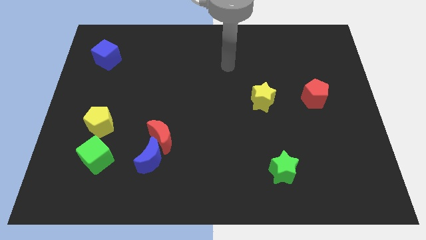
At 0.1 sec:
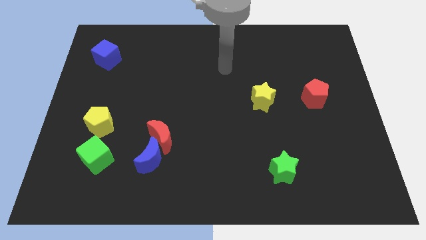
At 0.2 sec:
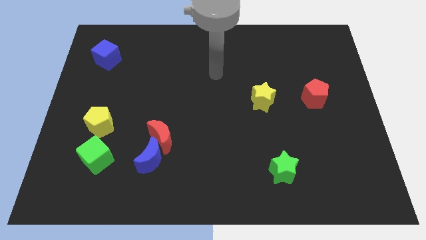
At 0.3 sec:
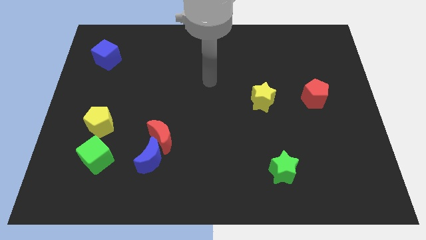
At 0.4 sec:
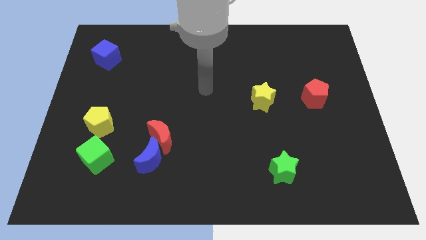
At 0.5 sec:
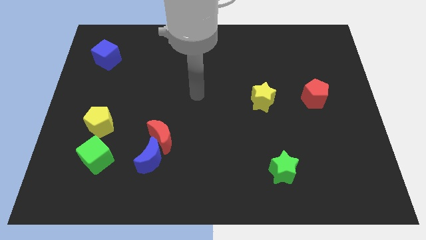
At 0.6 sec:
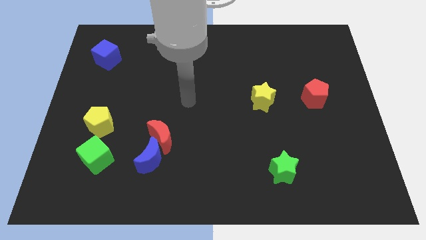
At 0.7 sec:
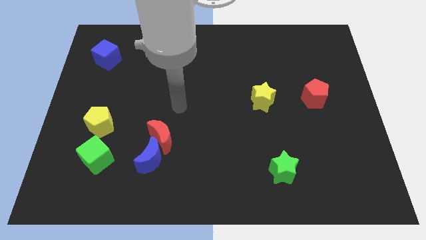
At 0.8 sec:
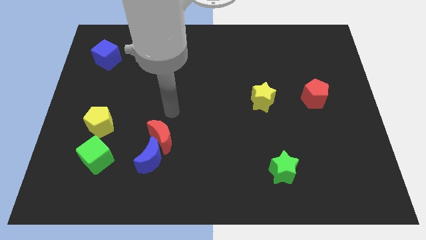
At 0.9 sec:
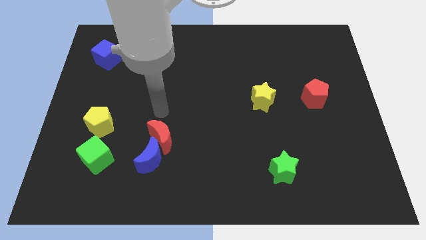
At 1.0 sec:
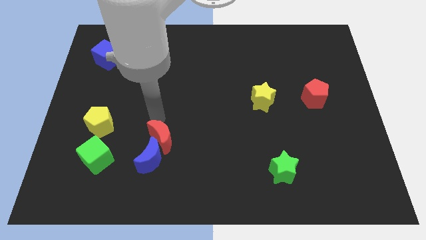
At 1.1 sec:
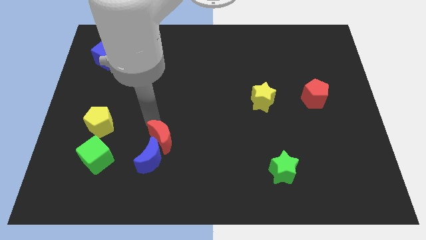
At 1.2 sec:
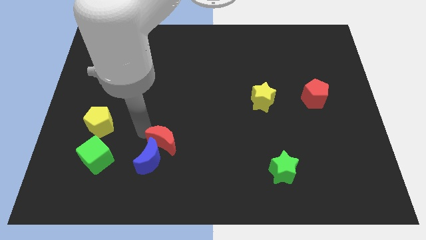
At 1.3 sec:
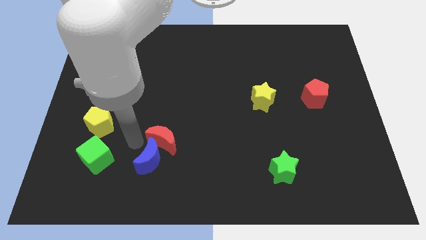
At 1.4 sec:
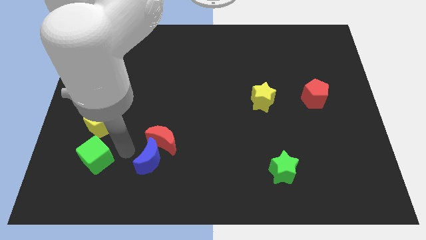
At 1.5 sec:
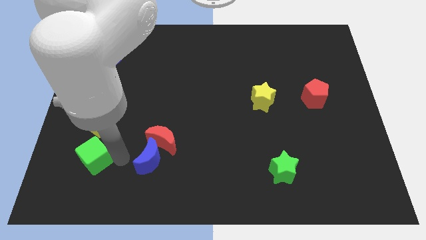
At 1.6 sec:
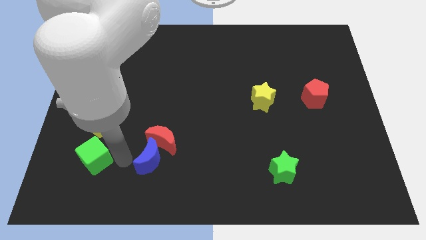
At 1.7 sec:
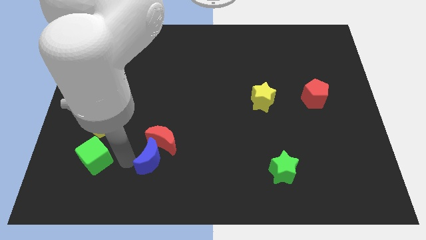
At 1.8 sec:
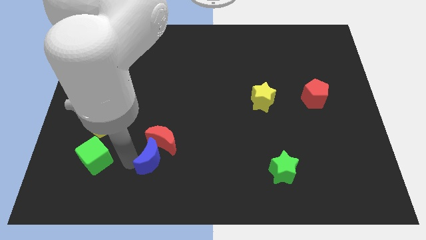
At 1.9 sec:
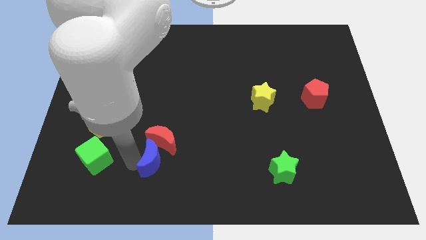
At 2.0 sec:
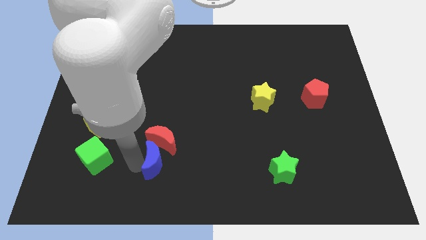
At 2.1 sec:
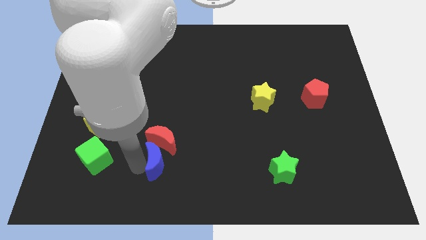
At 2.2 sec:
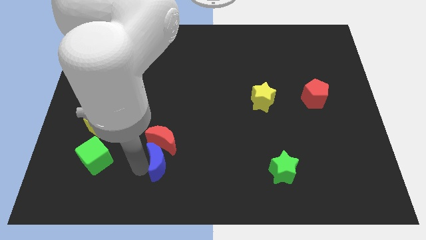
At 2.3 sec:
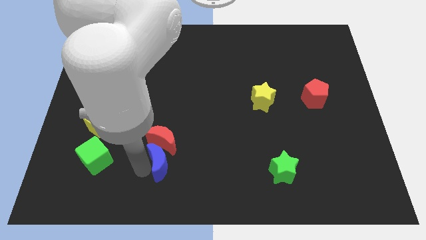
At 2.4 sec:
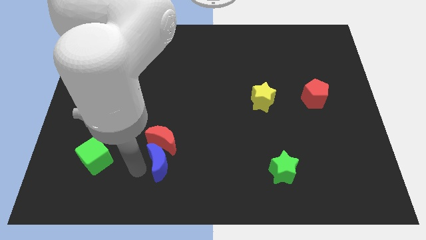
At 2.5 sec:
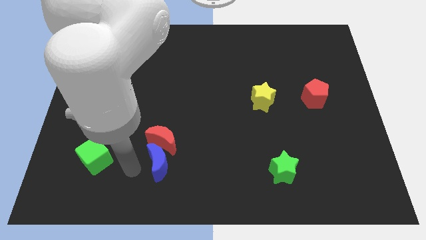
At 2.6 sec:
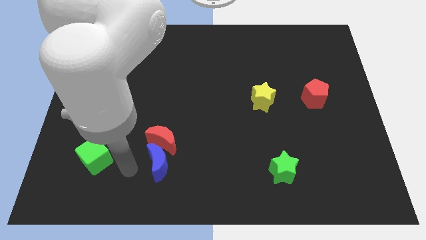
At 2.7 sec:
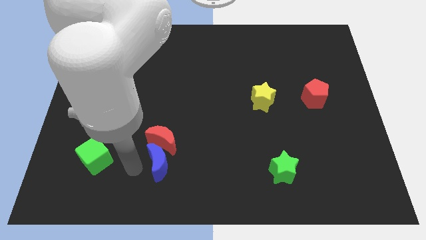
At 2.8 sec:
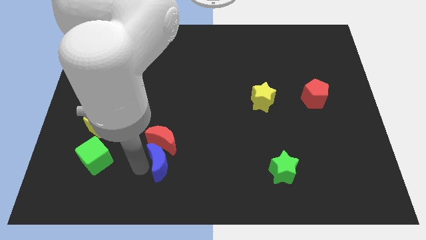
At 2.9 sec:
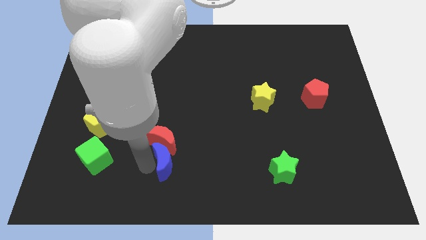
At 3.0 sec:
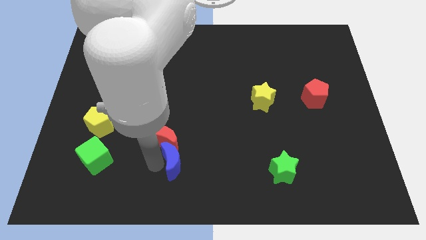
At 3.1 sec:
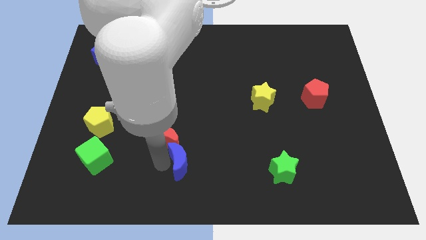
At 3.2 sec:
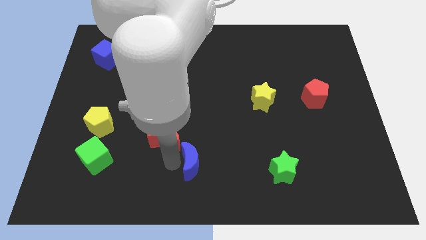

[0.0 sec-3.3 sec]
push the blue moon a little bit right

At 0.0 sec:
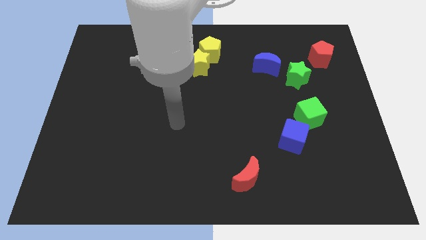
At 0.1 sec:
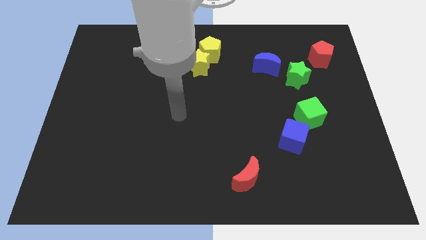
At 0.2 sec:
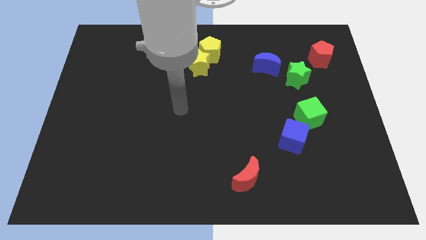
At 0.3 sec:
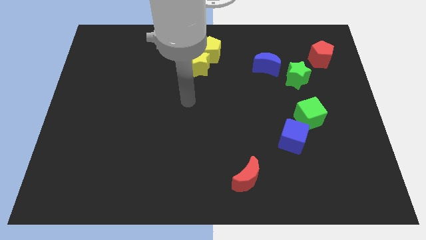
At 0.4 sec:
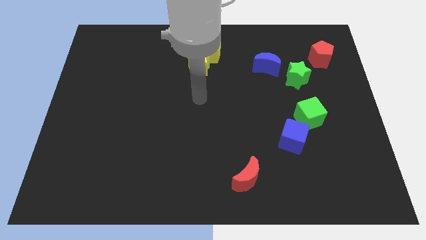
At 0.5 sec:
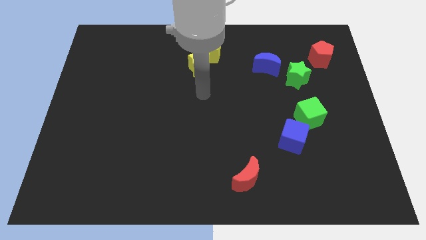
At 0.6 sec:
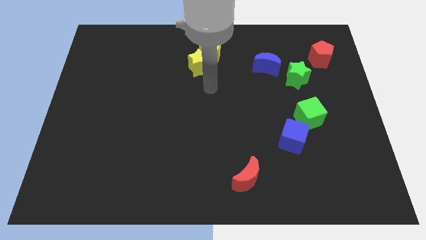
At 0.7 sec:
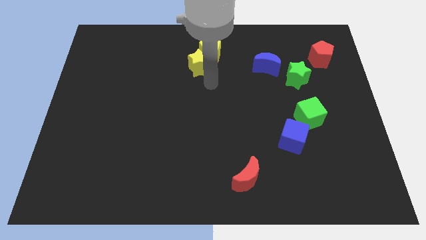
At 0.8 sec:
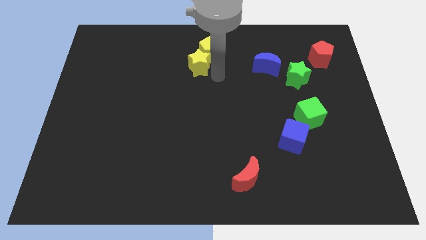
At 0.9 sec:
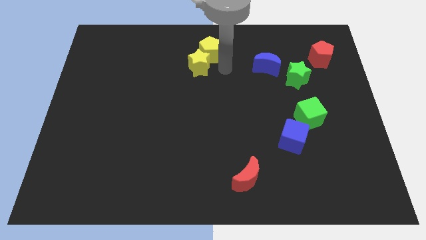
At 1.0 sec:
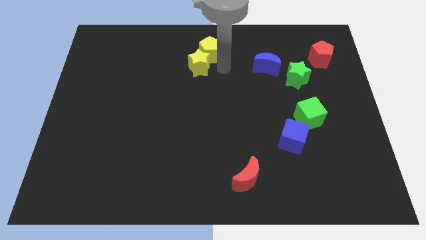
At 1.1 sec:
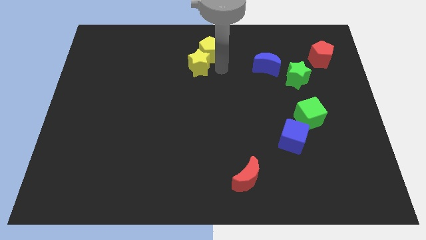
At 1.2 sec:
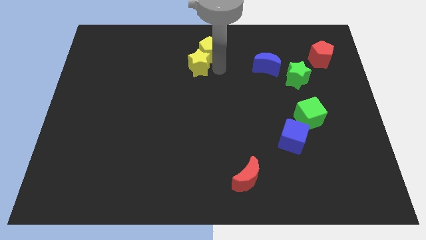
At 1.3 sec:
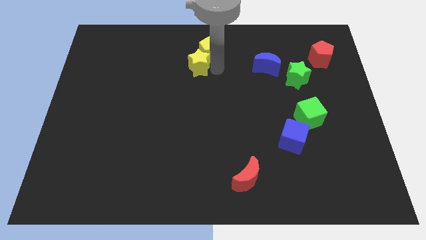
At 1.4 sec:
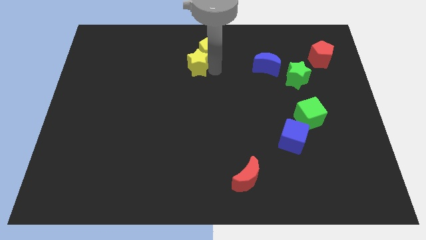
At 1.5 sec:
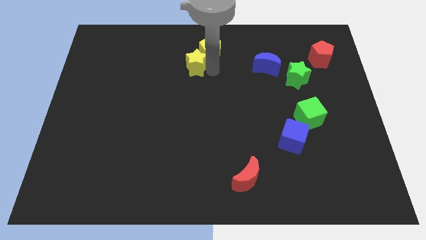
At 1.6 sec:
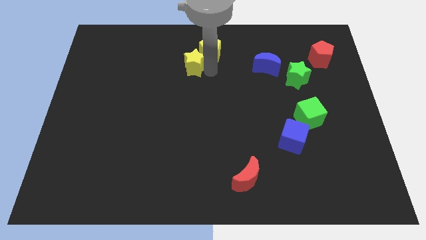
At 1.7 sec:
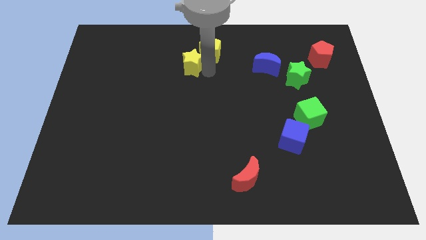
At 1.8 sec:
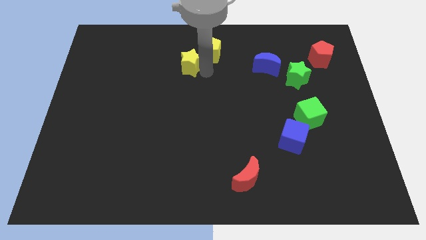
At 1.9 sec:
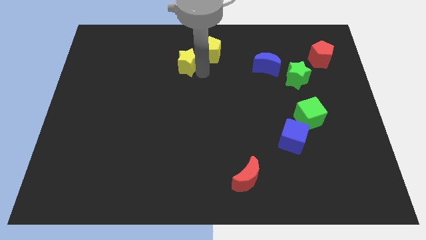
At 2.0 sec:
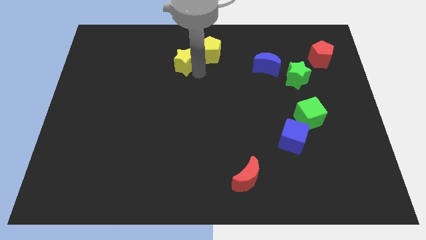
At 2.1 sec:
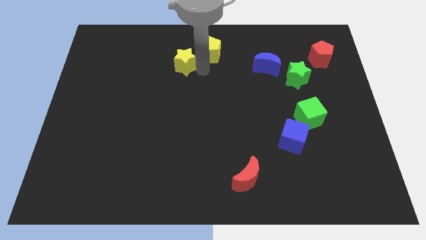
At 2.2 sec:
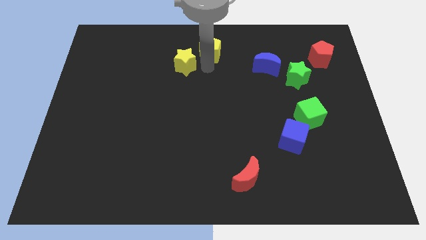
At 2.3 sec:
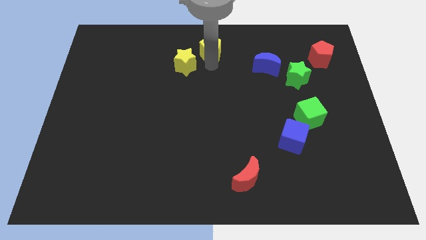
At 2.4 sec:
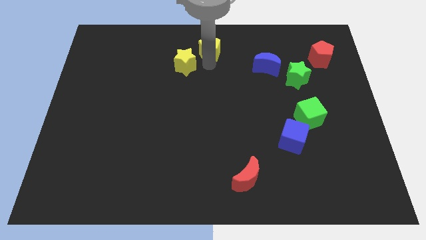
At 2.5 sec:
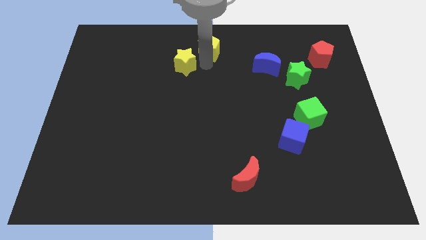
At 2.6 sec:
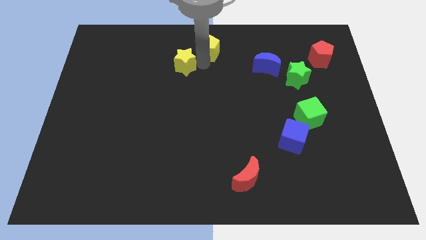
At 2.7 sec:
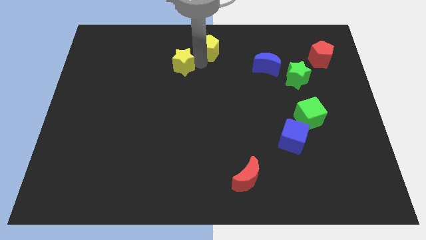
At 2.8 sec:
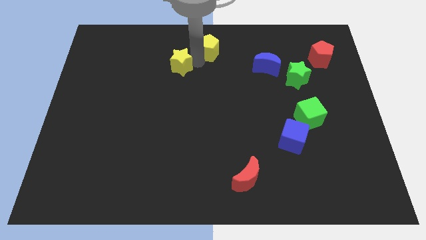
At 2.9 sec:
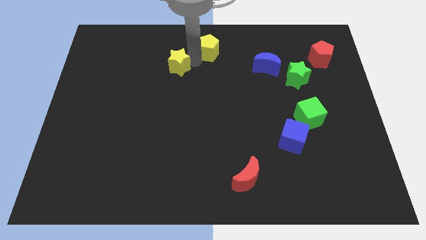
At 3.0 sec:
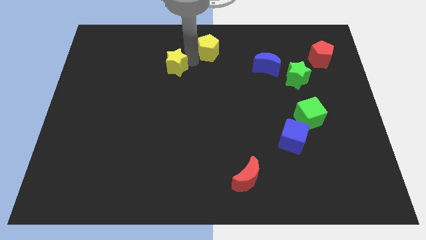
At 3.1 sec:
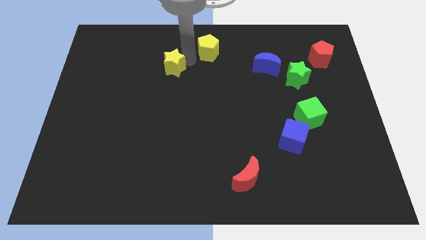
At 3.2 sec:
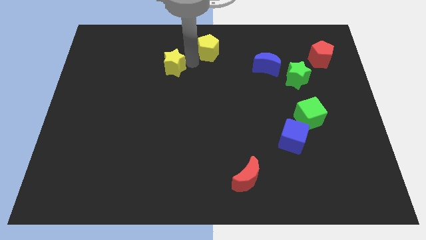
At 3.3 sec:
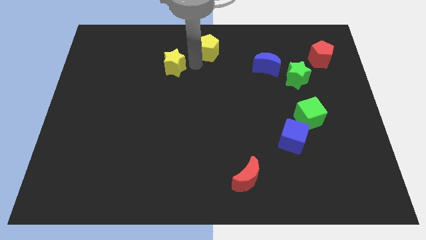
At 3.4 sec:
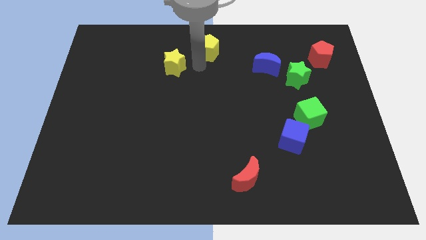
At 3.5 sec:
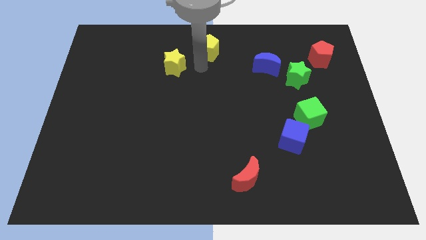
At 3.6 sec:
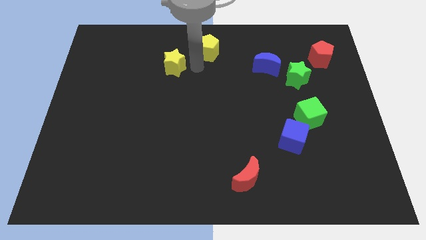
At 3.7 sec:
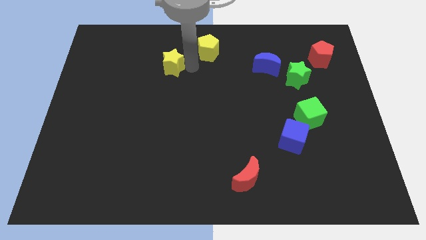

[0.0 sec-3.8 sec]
push the yellow star a bit to the left

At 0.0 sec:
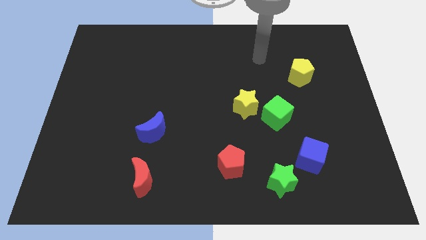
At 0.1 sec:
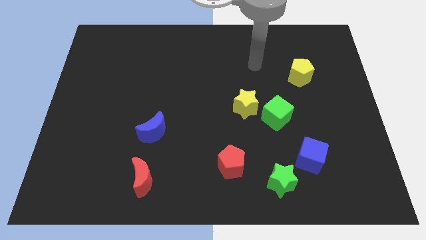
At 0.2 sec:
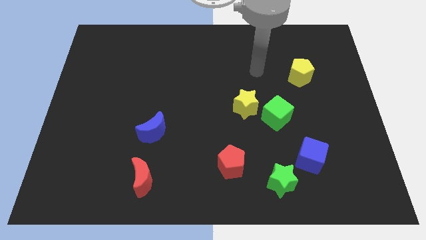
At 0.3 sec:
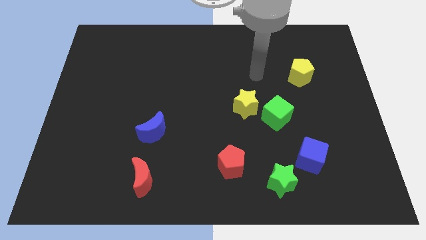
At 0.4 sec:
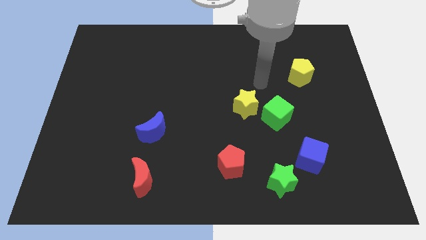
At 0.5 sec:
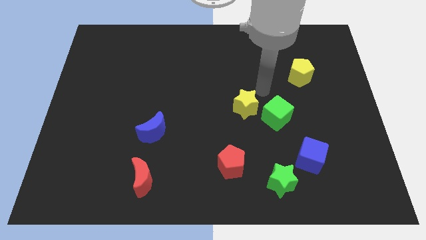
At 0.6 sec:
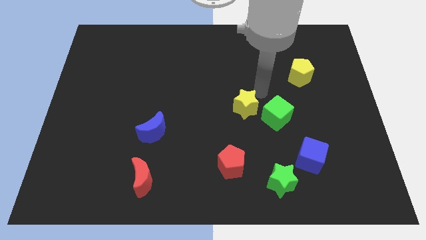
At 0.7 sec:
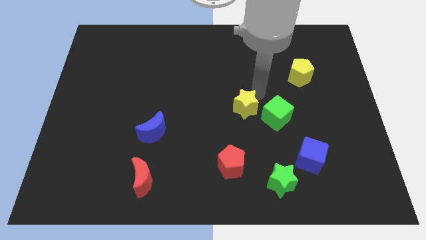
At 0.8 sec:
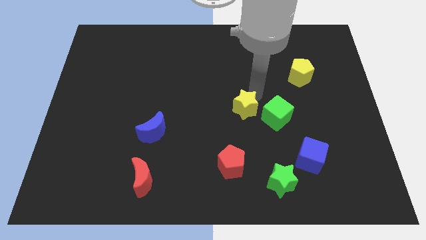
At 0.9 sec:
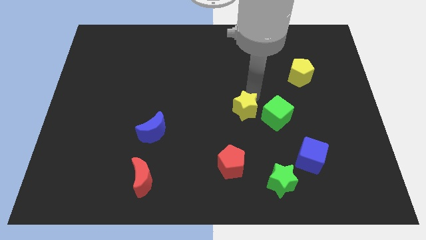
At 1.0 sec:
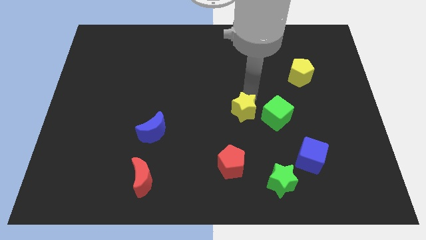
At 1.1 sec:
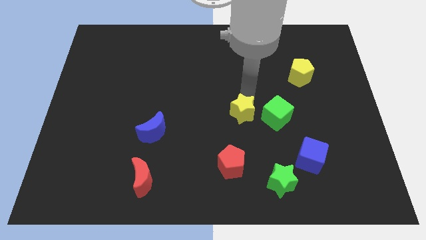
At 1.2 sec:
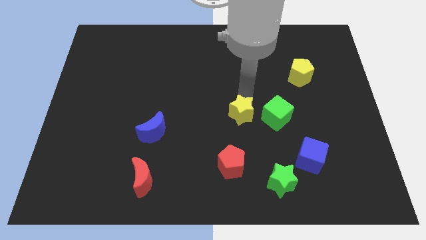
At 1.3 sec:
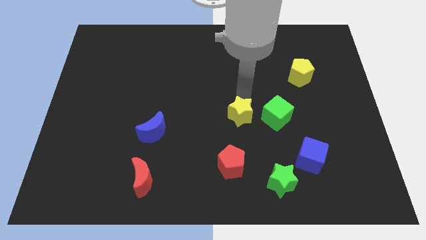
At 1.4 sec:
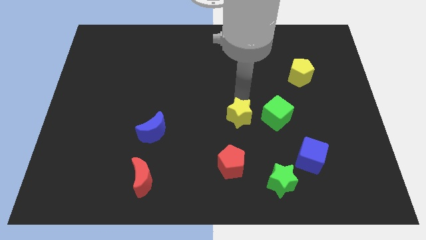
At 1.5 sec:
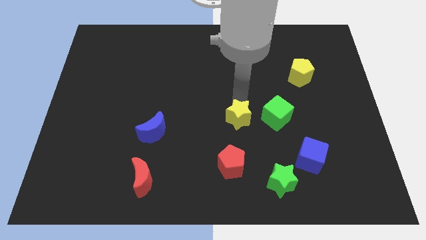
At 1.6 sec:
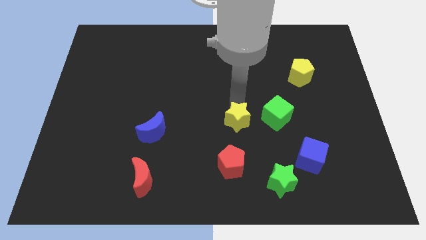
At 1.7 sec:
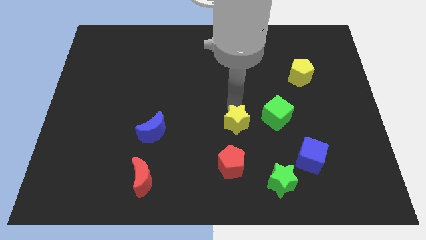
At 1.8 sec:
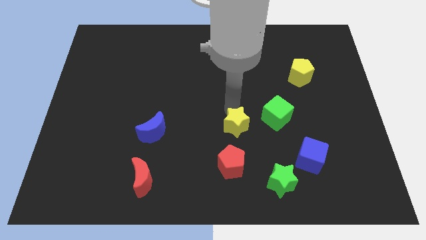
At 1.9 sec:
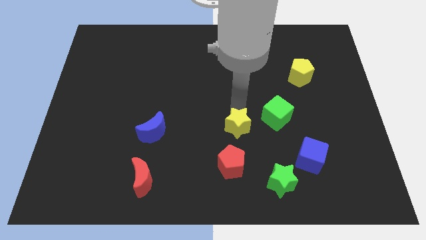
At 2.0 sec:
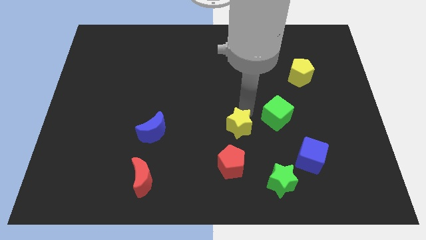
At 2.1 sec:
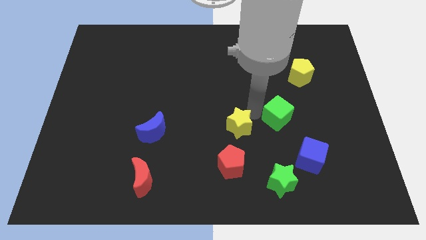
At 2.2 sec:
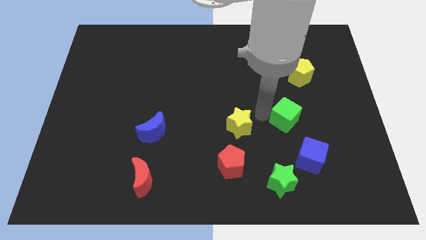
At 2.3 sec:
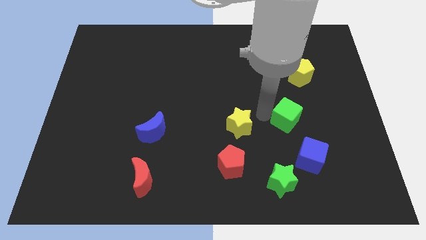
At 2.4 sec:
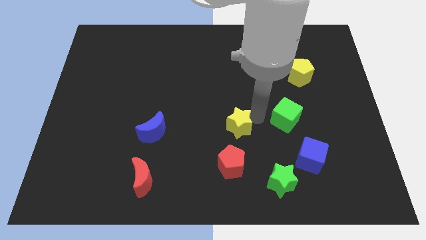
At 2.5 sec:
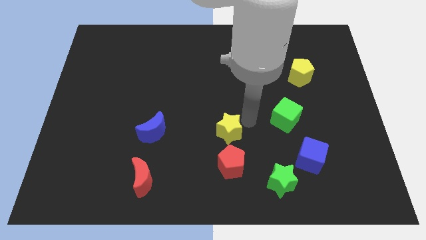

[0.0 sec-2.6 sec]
move the yellow star down and then left a bit
